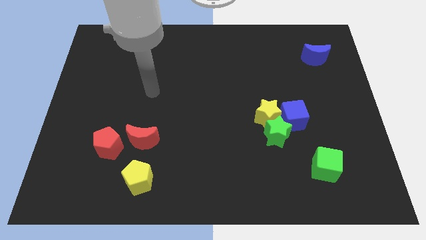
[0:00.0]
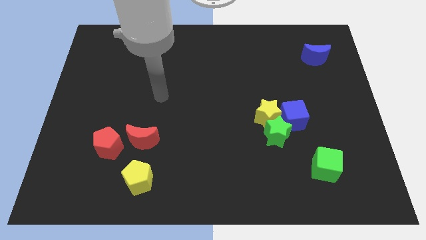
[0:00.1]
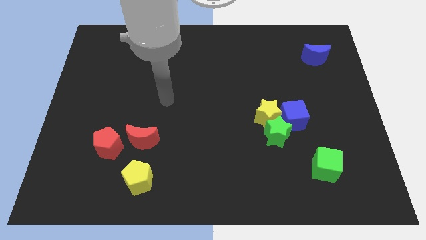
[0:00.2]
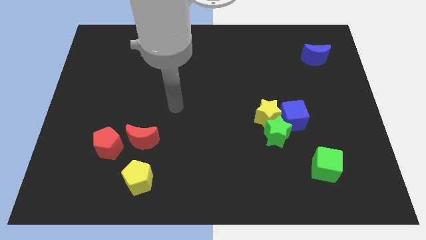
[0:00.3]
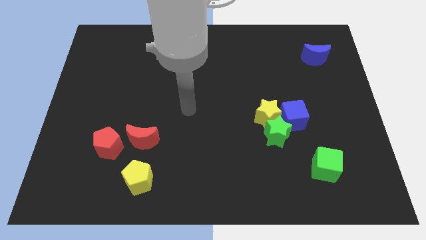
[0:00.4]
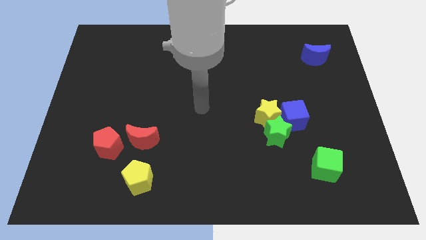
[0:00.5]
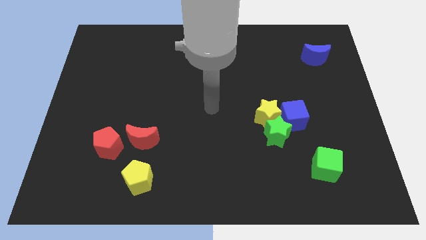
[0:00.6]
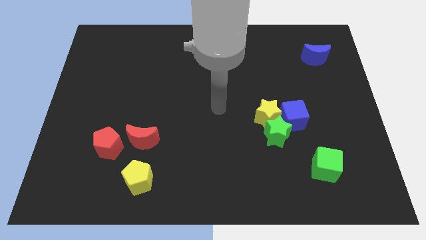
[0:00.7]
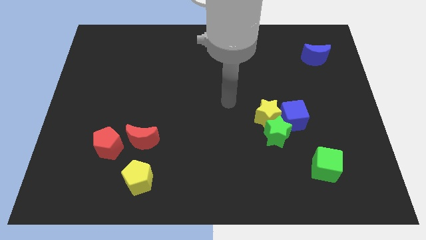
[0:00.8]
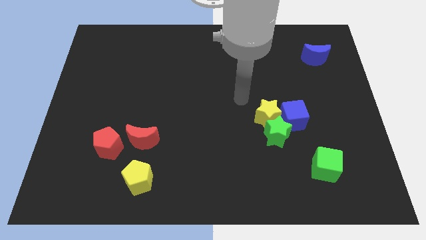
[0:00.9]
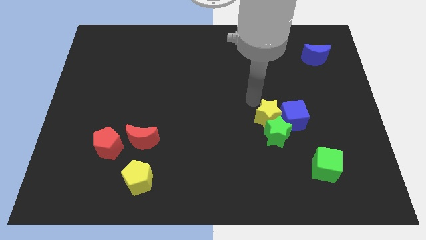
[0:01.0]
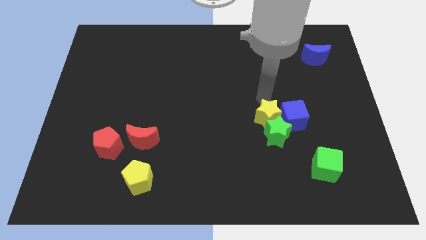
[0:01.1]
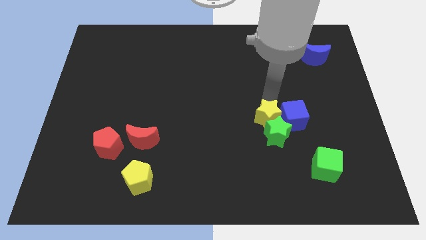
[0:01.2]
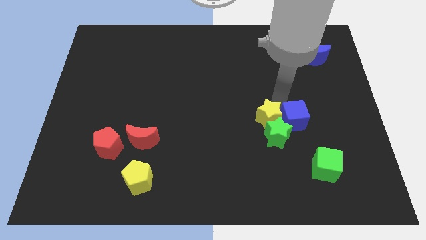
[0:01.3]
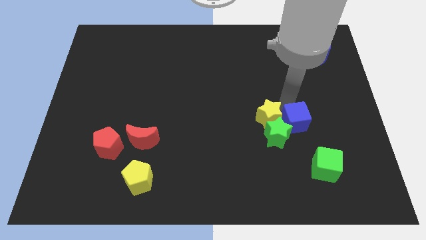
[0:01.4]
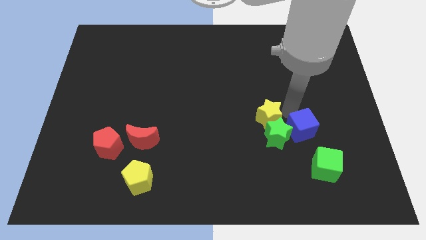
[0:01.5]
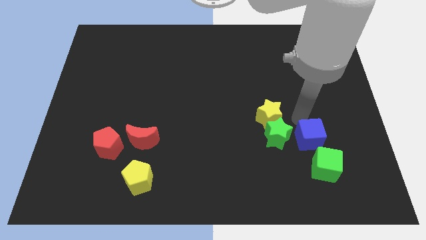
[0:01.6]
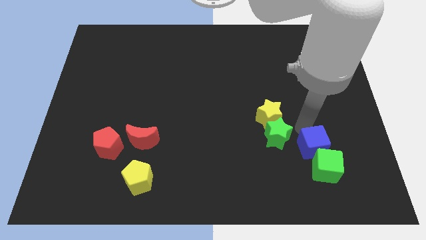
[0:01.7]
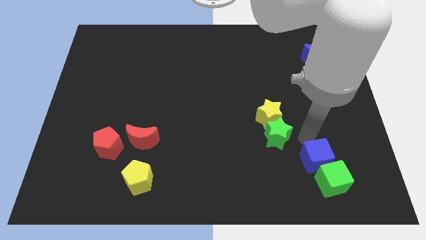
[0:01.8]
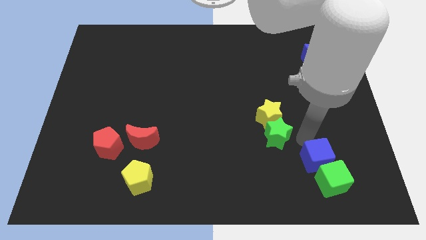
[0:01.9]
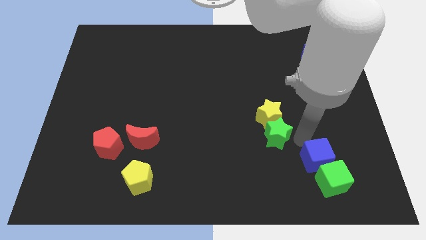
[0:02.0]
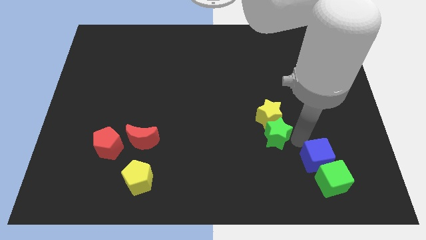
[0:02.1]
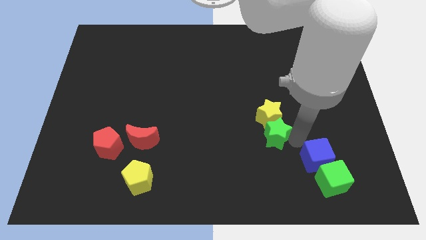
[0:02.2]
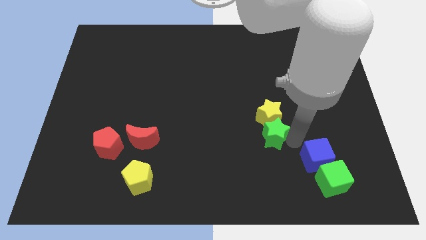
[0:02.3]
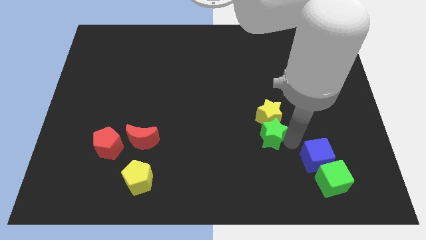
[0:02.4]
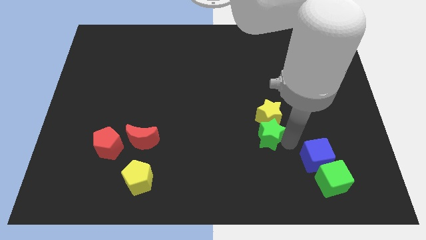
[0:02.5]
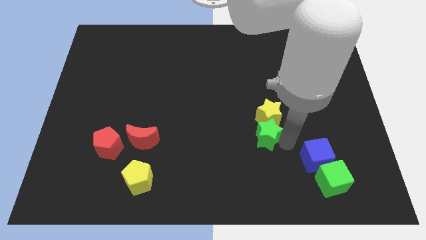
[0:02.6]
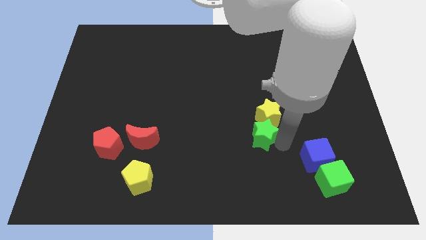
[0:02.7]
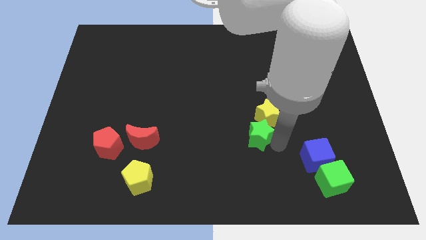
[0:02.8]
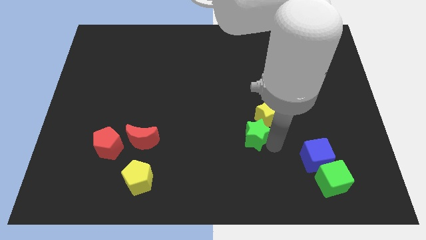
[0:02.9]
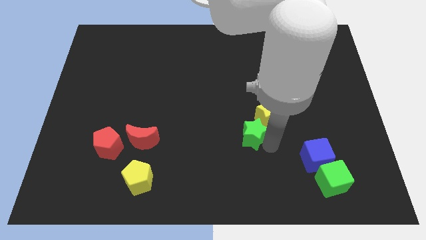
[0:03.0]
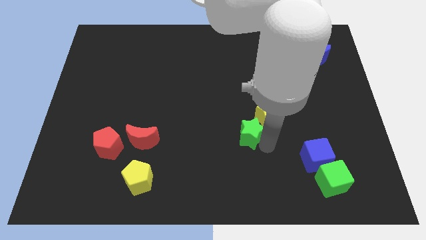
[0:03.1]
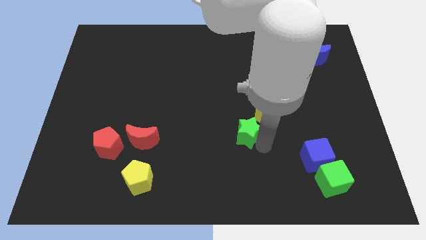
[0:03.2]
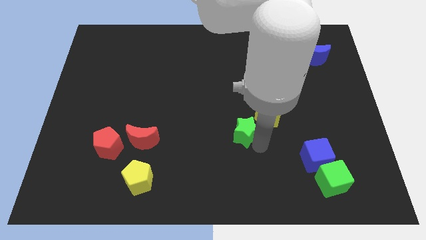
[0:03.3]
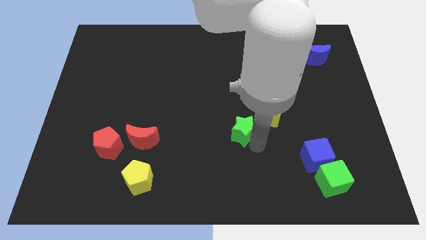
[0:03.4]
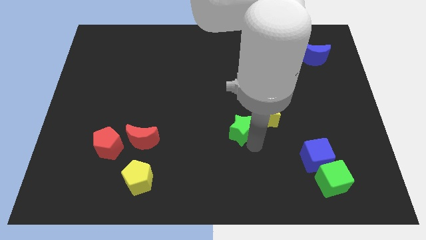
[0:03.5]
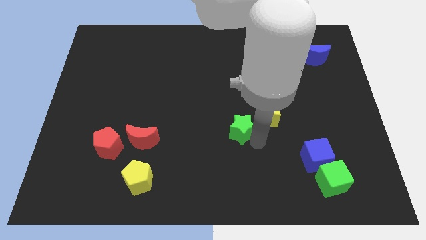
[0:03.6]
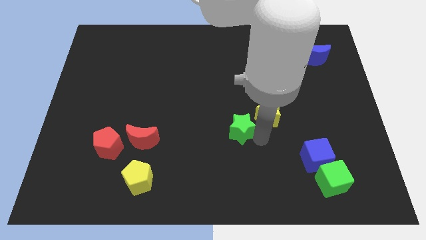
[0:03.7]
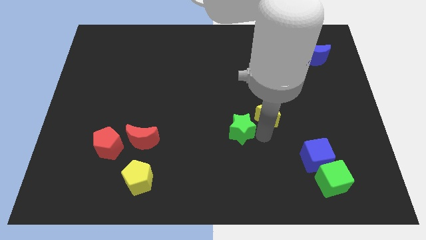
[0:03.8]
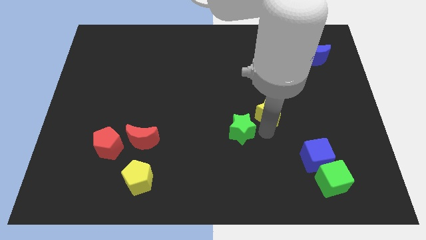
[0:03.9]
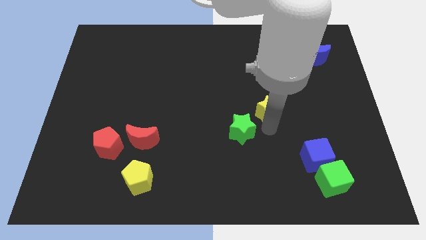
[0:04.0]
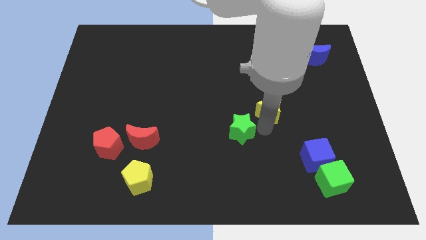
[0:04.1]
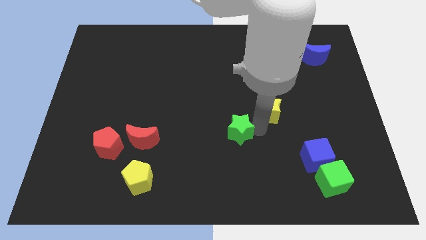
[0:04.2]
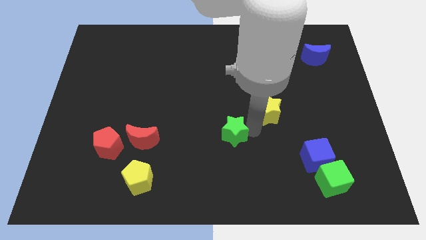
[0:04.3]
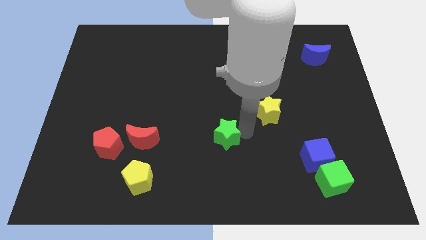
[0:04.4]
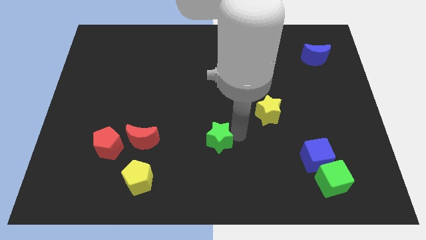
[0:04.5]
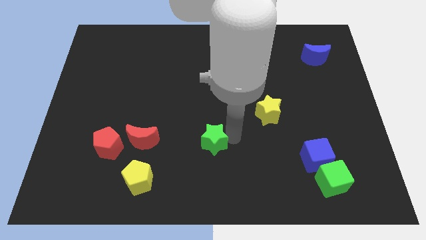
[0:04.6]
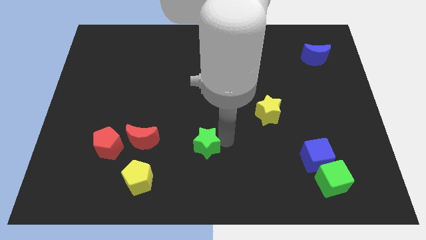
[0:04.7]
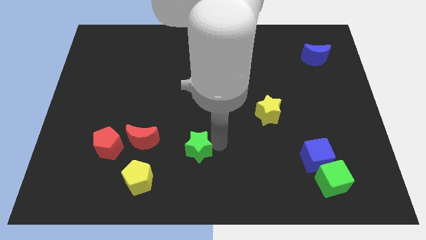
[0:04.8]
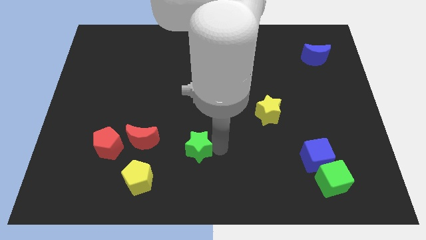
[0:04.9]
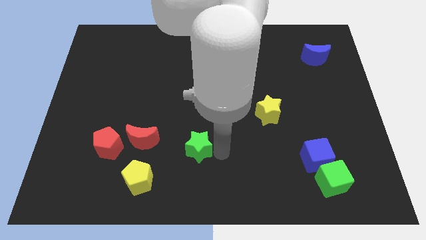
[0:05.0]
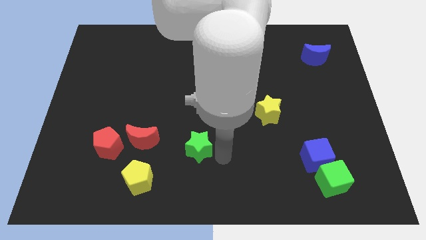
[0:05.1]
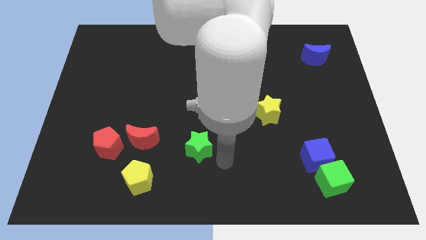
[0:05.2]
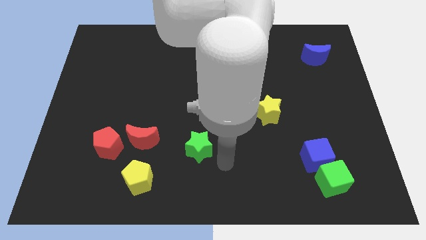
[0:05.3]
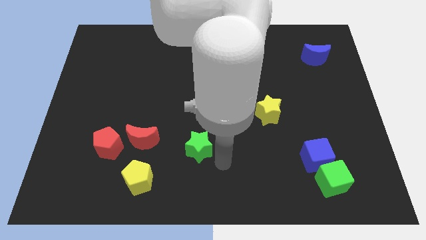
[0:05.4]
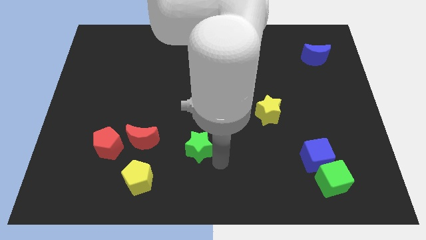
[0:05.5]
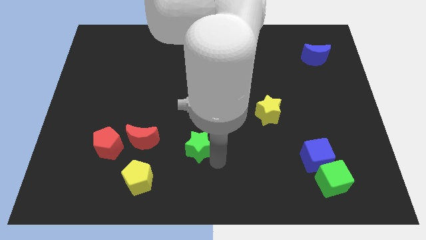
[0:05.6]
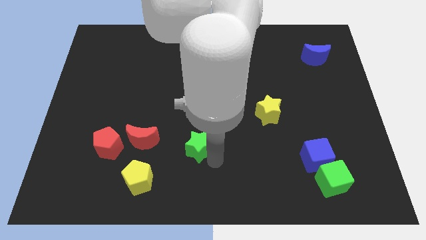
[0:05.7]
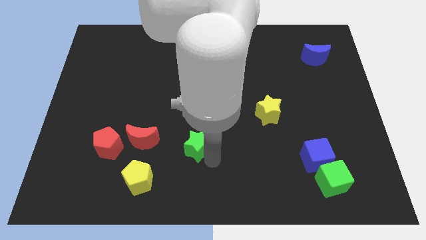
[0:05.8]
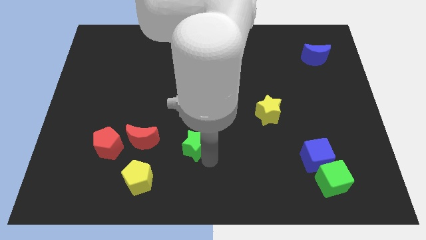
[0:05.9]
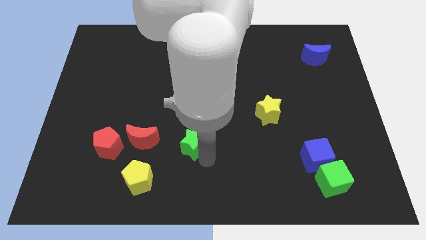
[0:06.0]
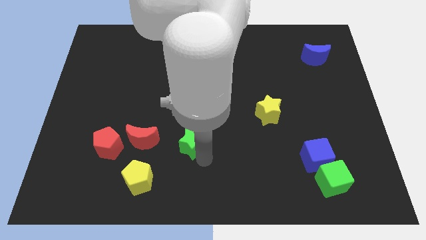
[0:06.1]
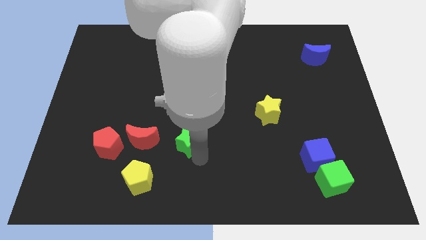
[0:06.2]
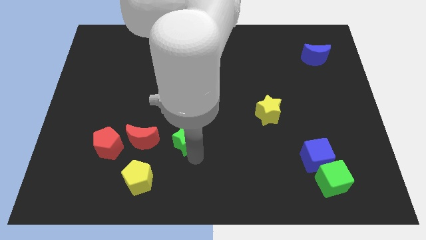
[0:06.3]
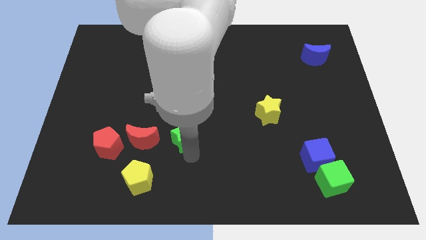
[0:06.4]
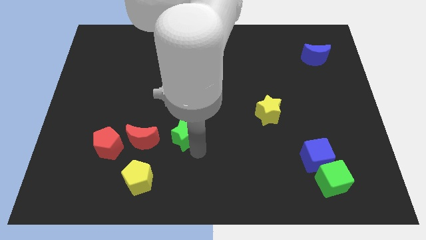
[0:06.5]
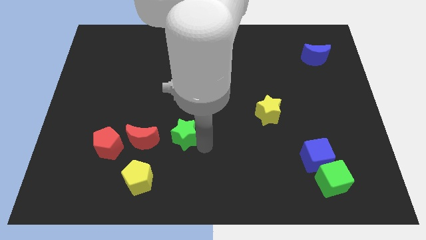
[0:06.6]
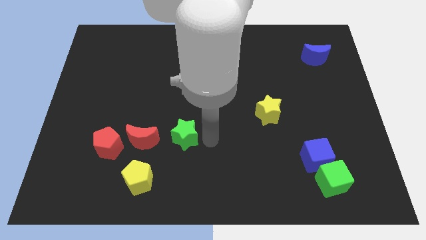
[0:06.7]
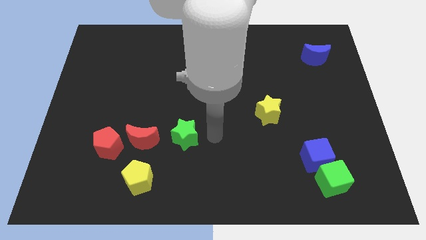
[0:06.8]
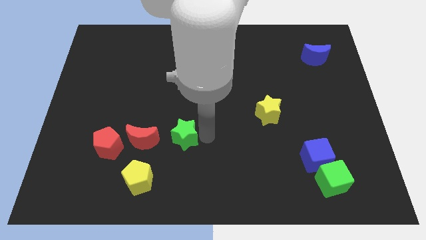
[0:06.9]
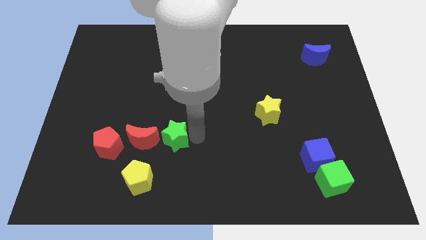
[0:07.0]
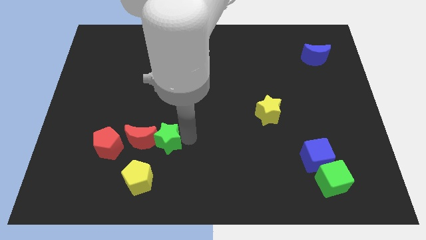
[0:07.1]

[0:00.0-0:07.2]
move the green star next to the red moon
